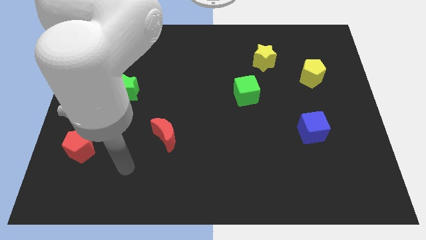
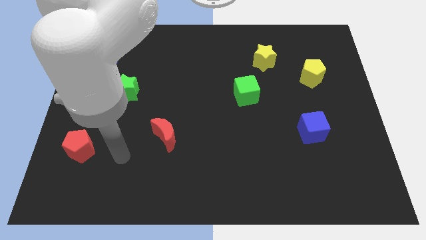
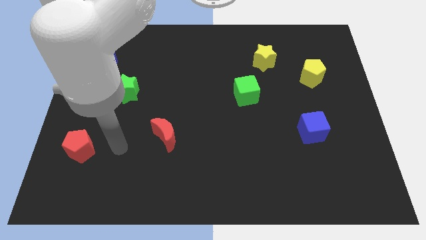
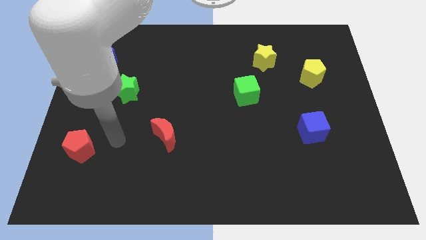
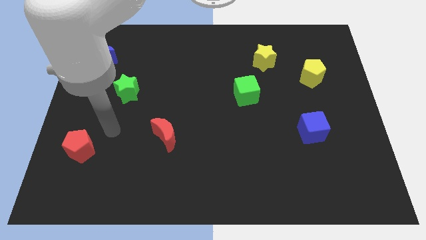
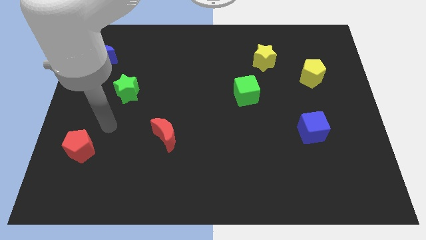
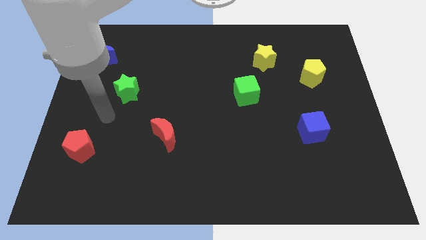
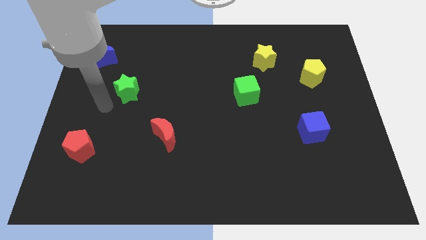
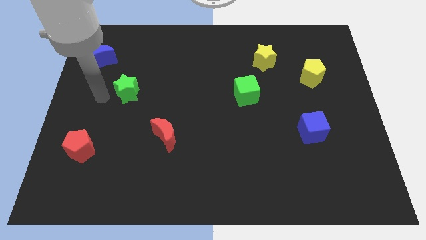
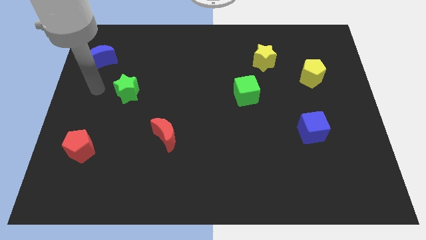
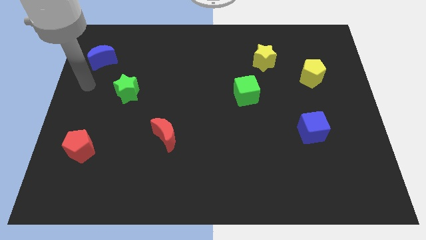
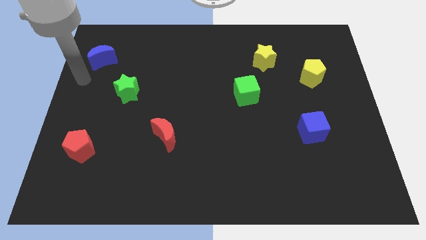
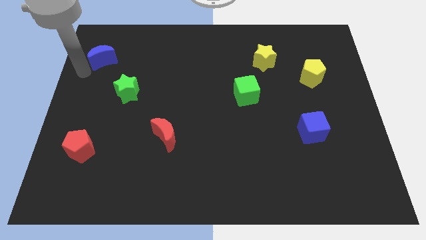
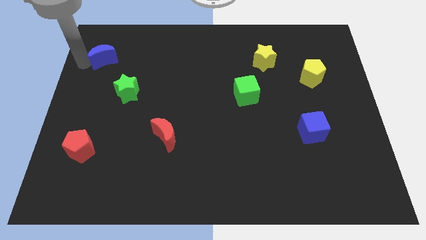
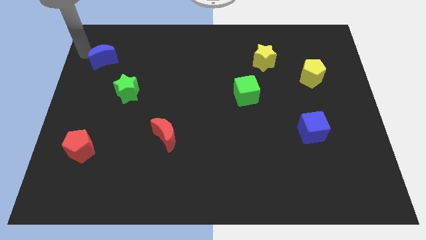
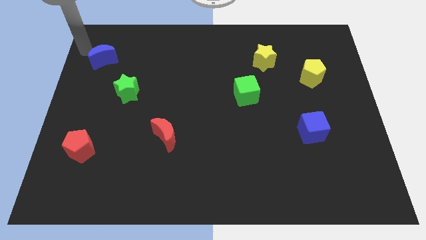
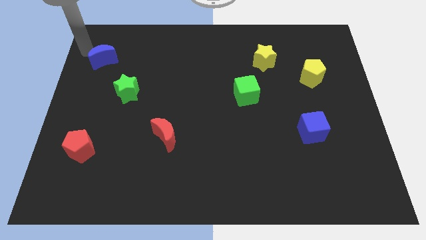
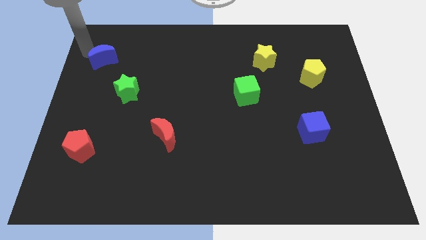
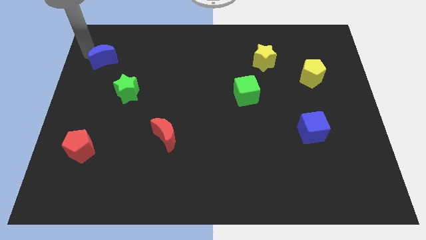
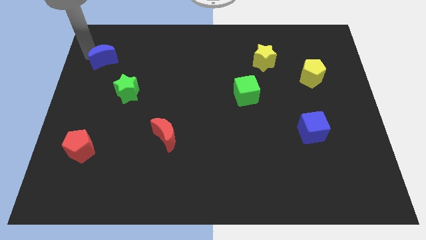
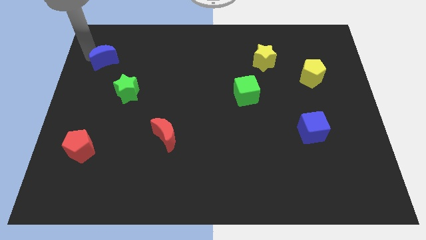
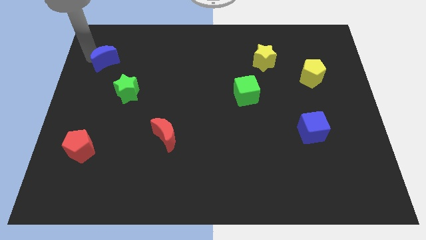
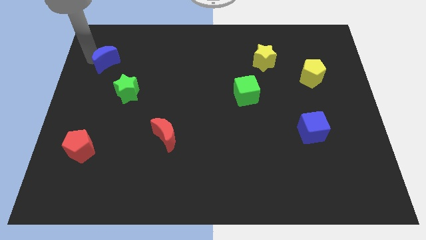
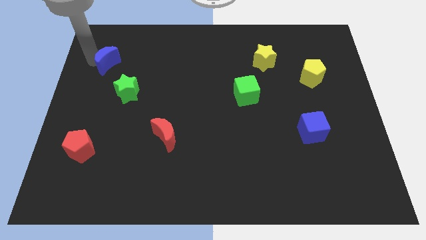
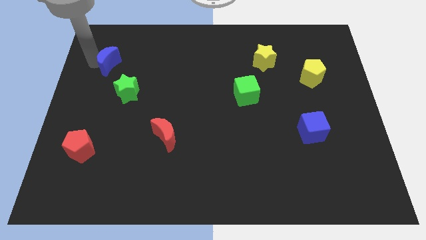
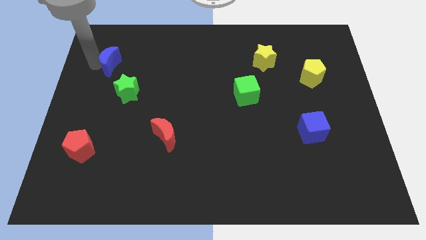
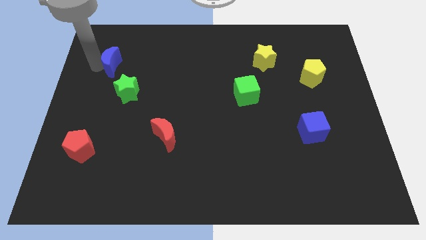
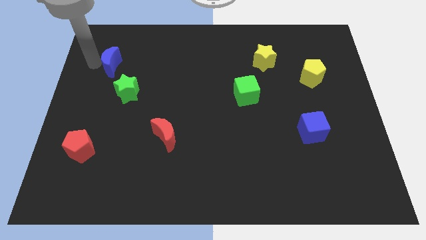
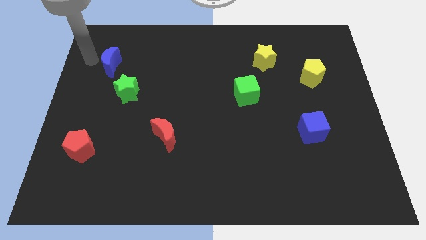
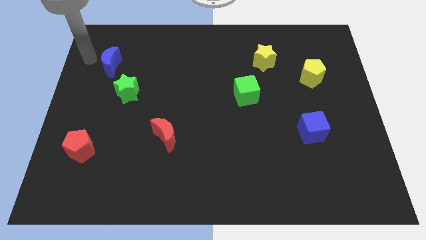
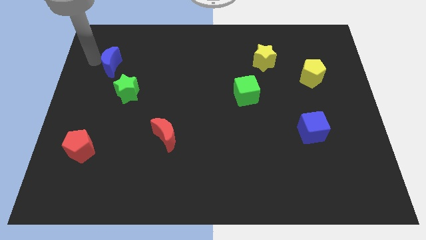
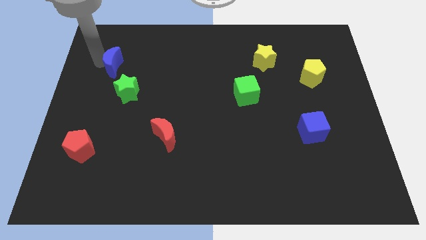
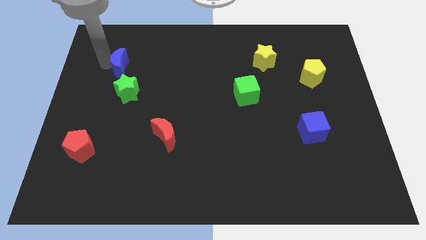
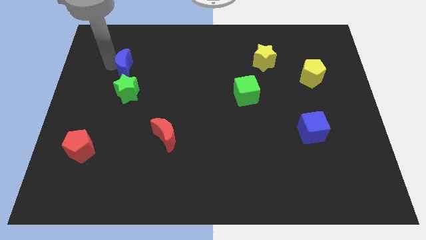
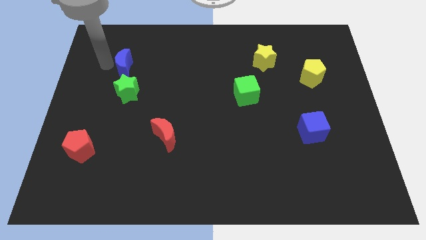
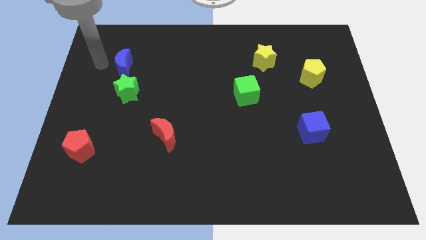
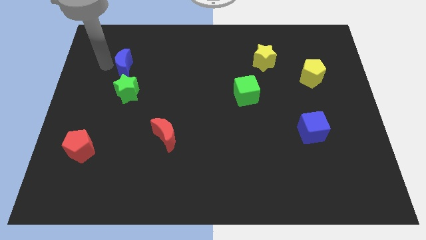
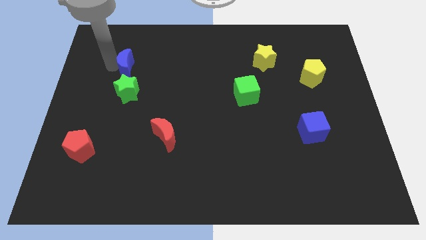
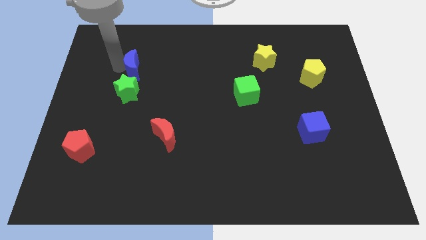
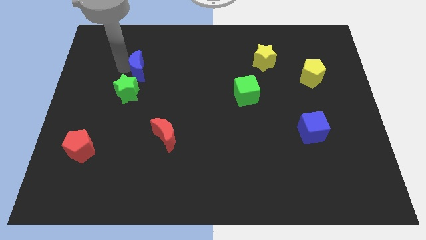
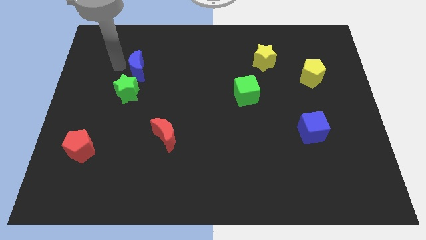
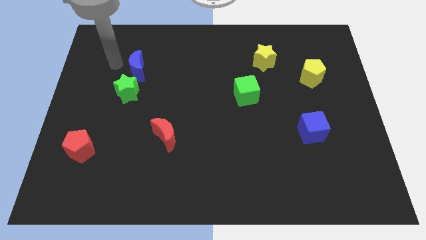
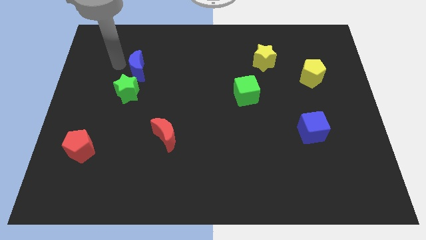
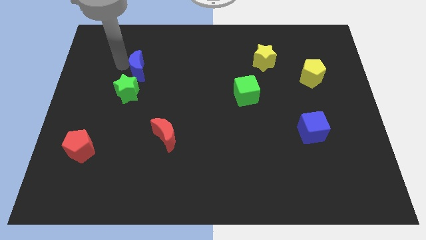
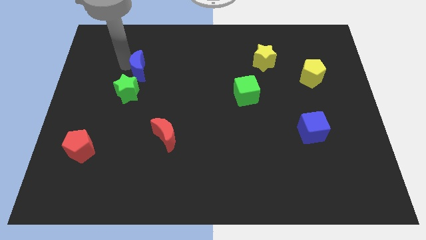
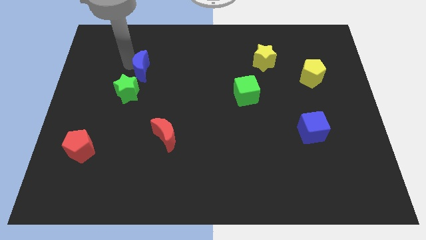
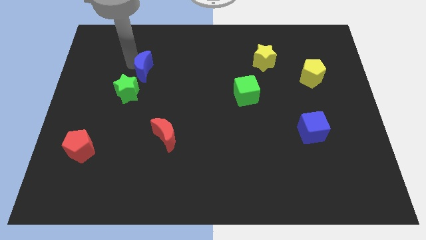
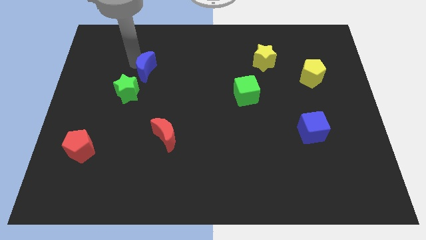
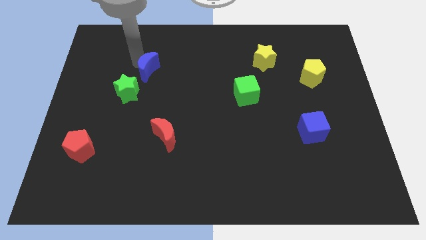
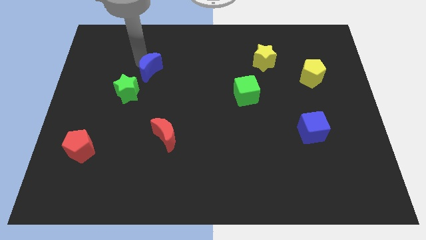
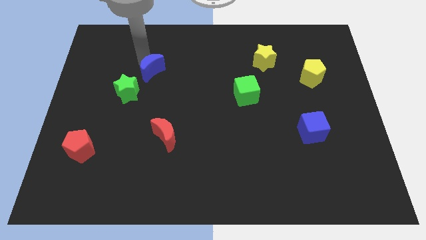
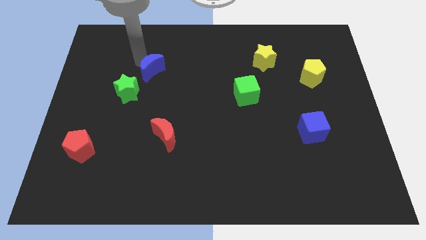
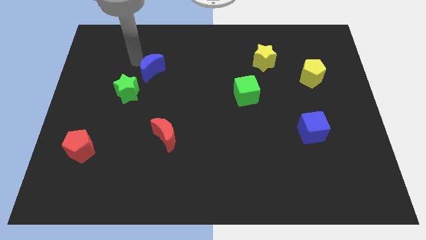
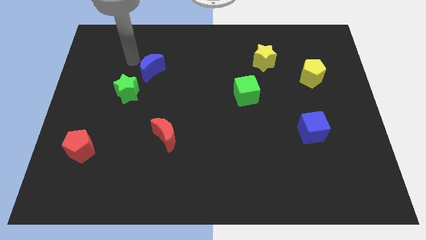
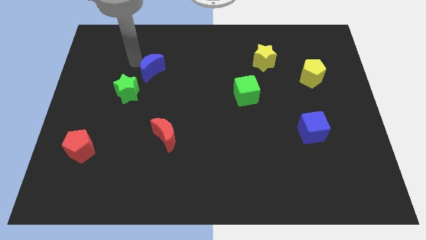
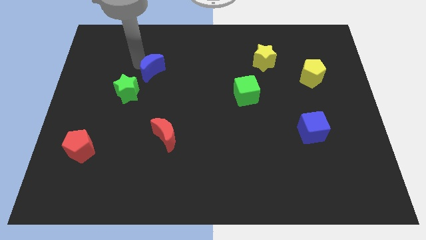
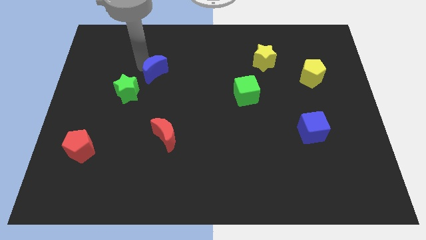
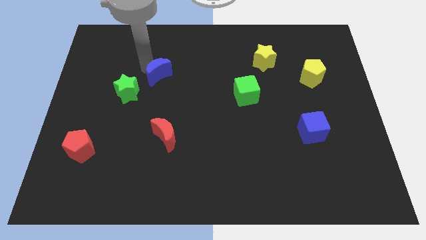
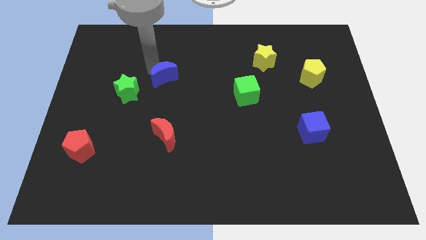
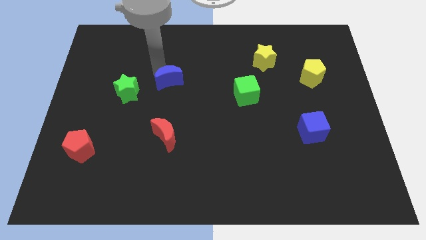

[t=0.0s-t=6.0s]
slide the blue moon to the right side of the green star
